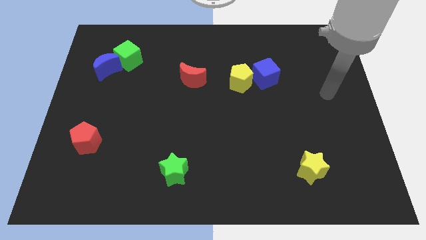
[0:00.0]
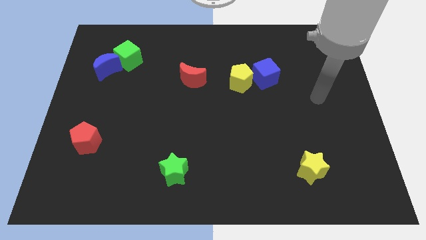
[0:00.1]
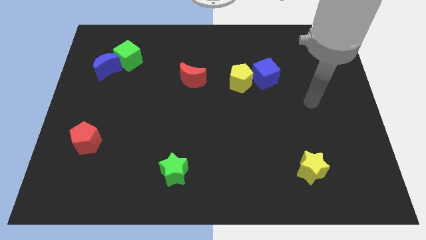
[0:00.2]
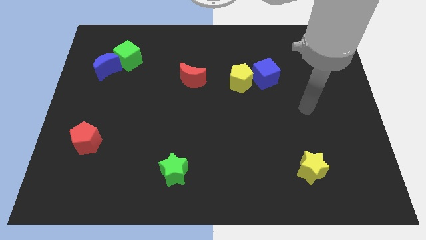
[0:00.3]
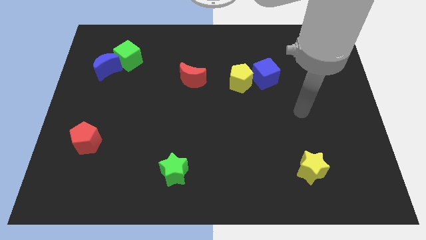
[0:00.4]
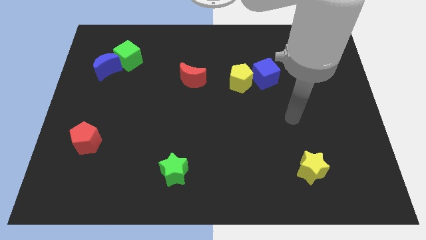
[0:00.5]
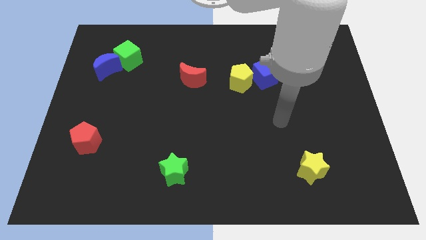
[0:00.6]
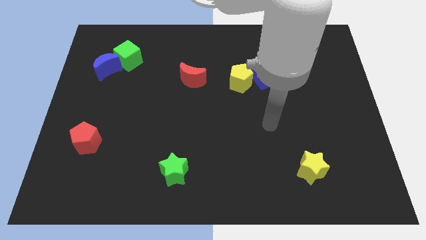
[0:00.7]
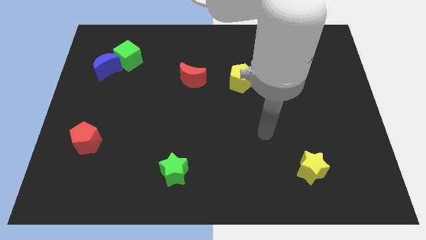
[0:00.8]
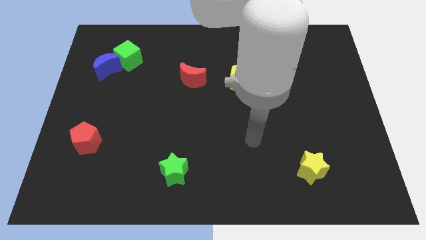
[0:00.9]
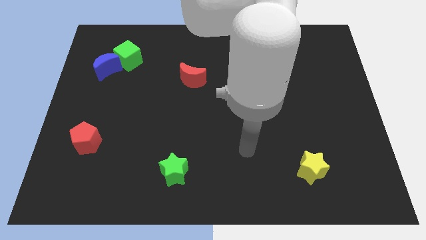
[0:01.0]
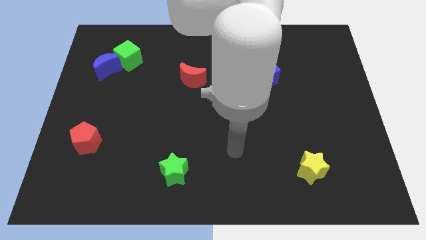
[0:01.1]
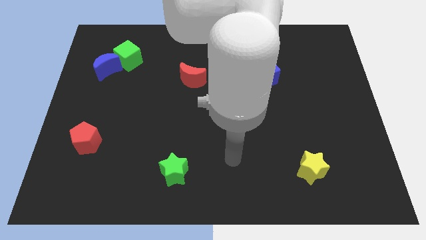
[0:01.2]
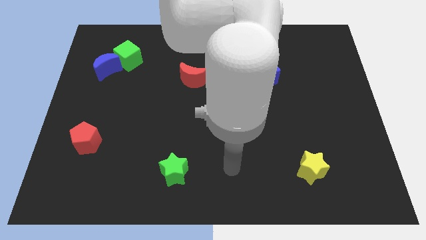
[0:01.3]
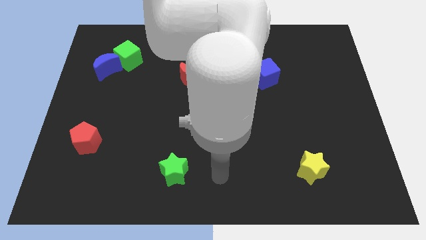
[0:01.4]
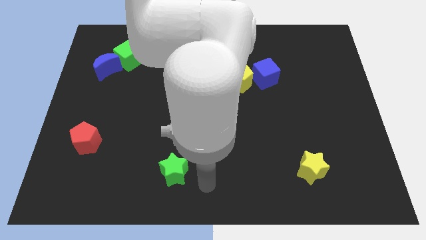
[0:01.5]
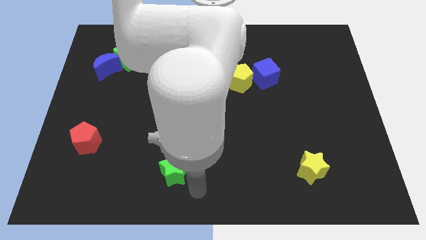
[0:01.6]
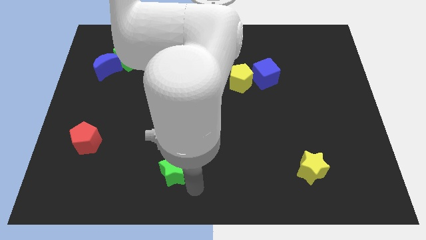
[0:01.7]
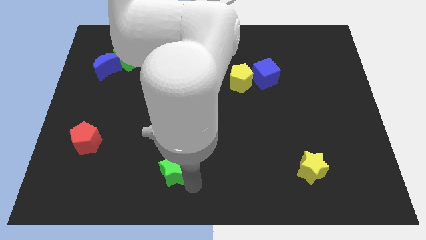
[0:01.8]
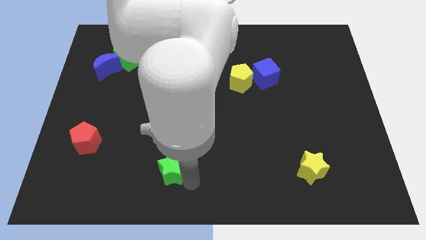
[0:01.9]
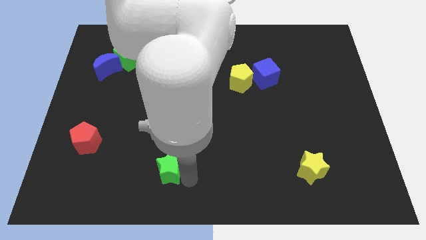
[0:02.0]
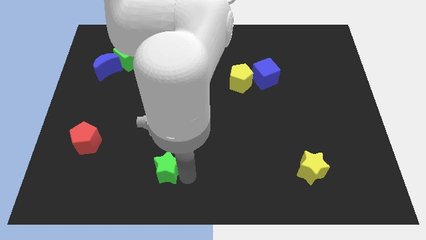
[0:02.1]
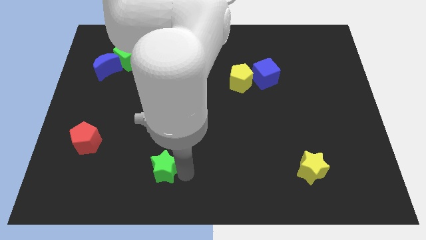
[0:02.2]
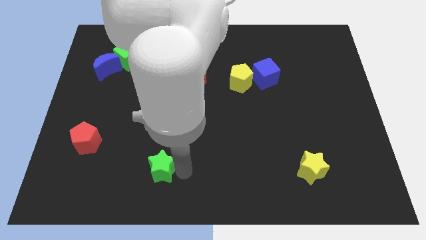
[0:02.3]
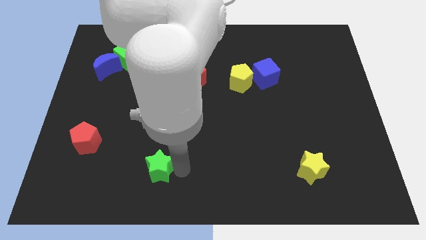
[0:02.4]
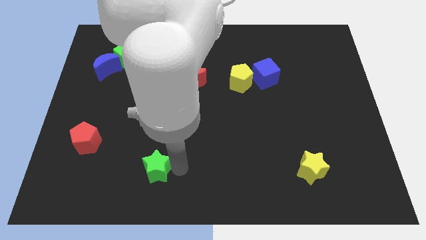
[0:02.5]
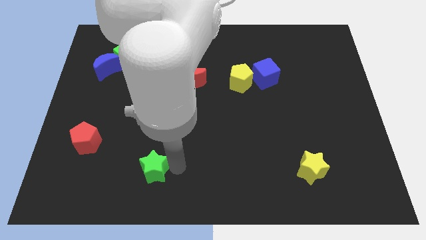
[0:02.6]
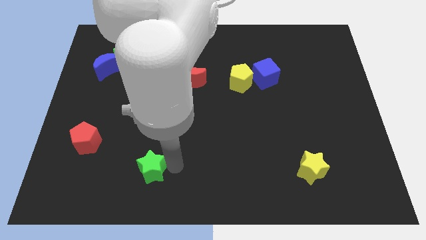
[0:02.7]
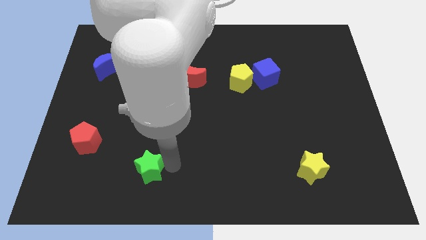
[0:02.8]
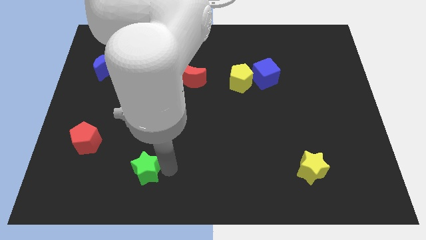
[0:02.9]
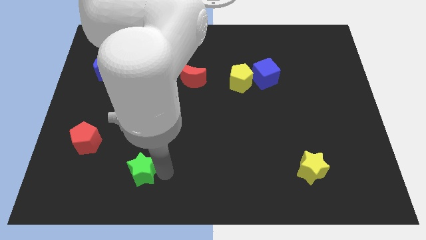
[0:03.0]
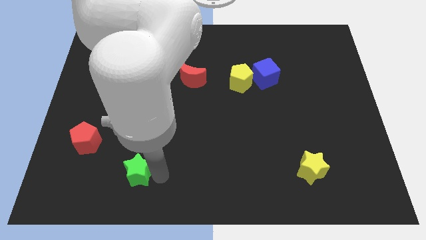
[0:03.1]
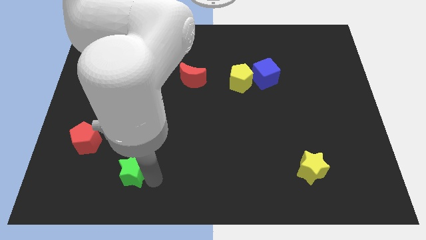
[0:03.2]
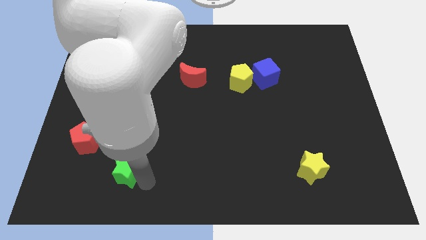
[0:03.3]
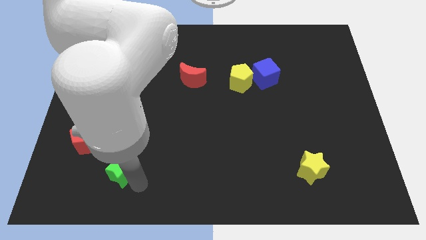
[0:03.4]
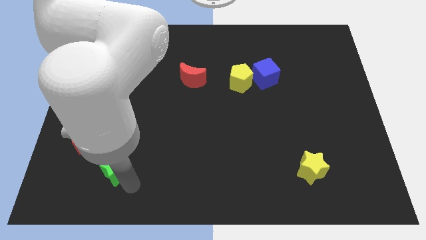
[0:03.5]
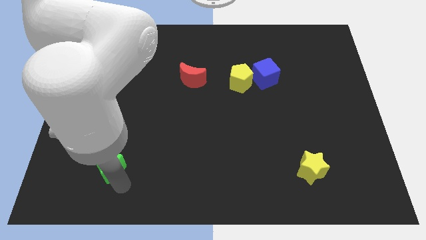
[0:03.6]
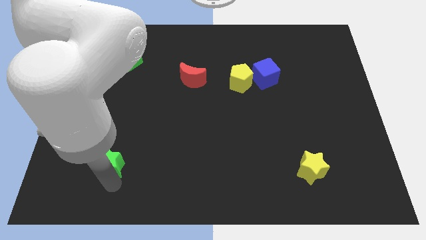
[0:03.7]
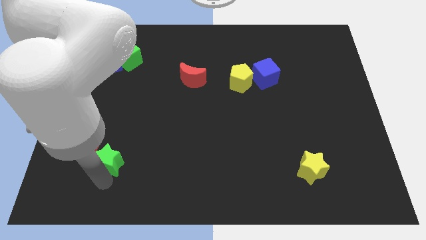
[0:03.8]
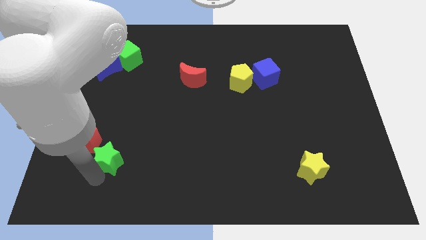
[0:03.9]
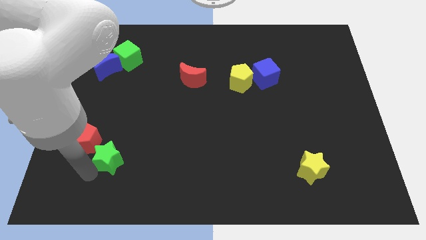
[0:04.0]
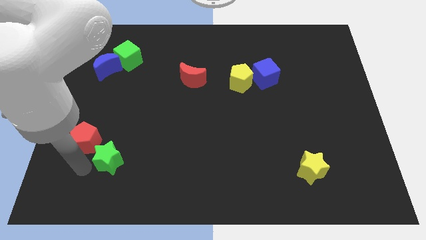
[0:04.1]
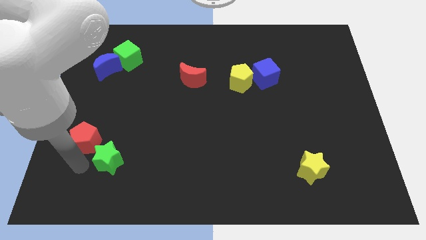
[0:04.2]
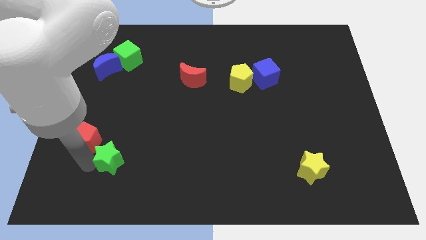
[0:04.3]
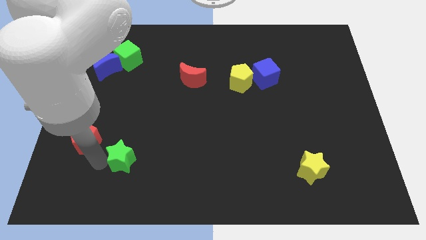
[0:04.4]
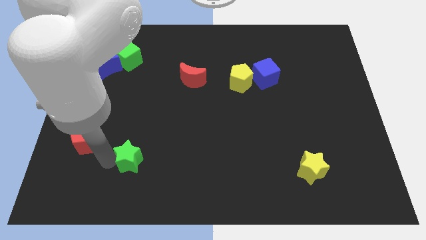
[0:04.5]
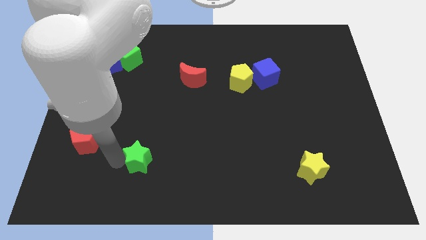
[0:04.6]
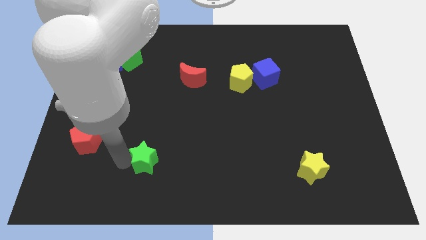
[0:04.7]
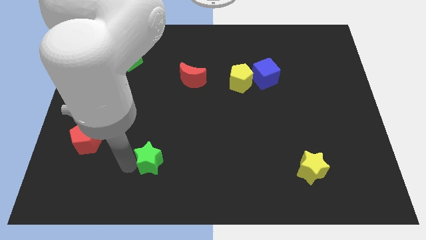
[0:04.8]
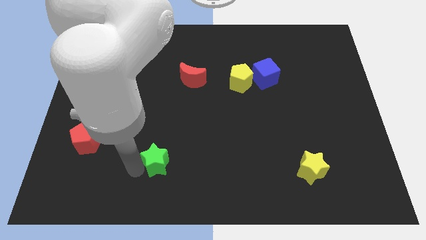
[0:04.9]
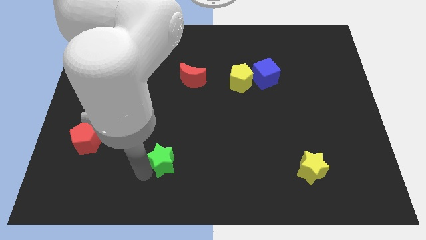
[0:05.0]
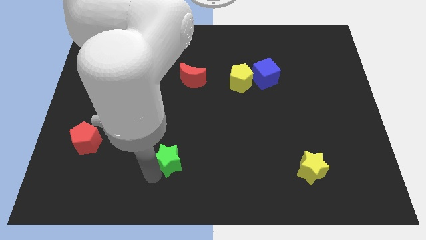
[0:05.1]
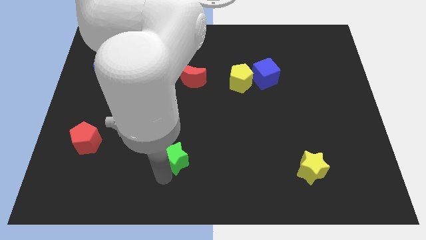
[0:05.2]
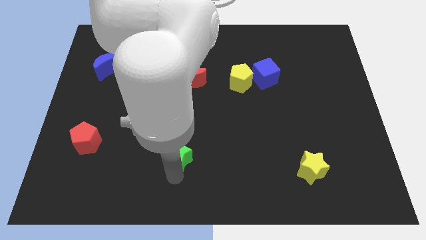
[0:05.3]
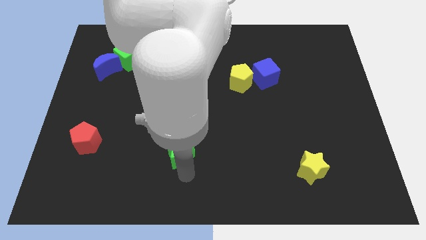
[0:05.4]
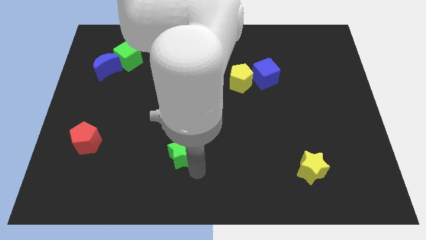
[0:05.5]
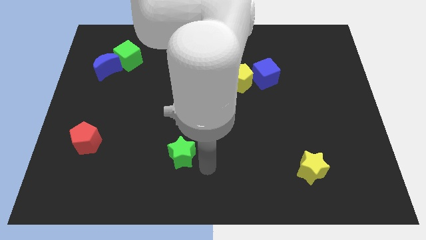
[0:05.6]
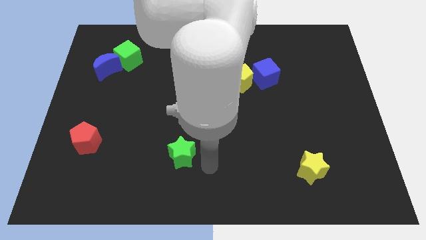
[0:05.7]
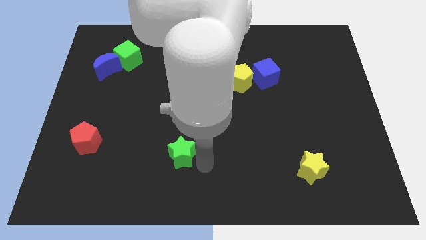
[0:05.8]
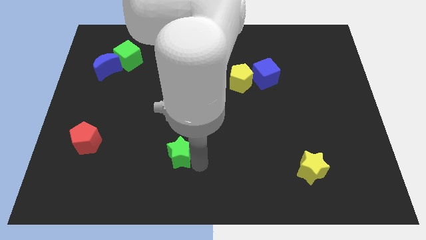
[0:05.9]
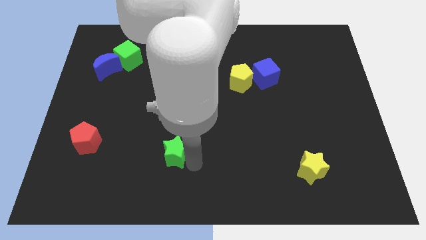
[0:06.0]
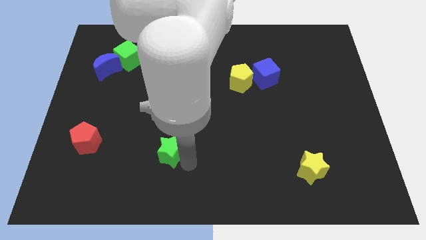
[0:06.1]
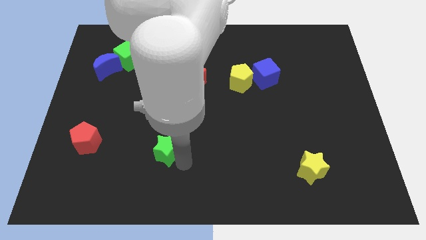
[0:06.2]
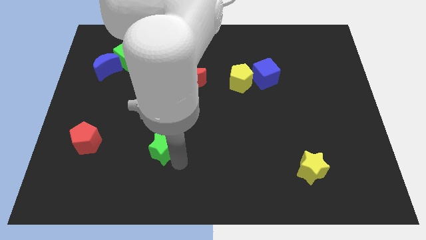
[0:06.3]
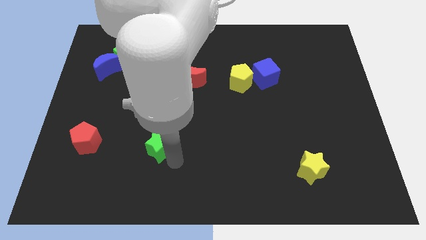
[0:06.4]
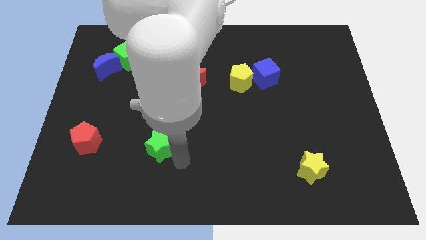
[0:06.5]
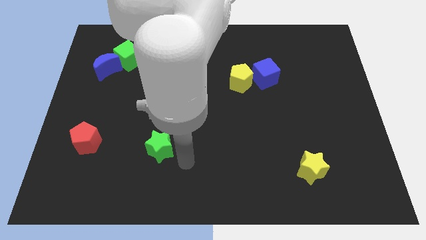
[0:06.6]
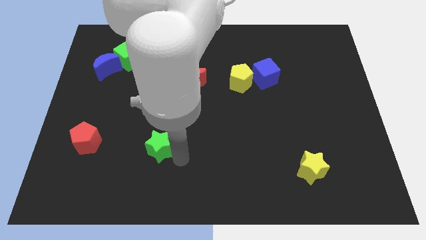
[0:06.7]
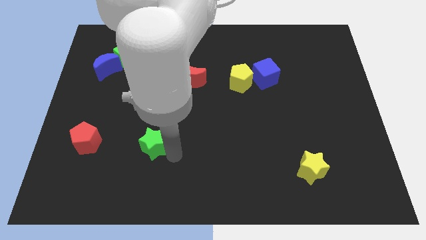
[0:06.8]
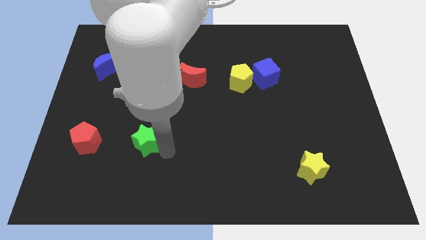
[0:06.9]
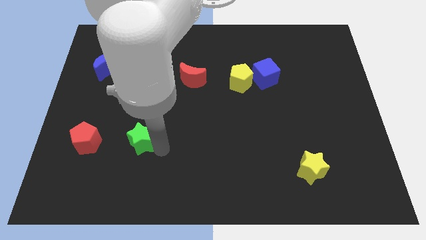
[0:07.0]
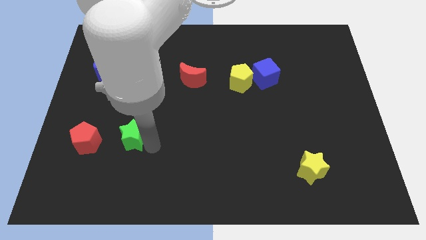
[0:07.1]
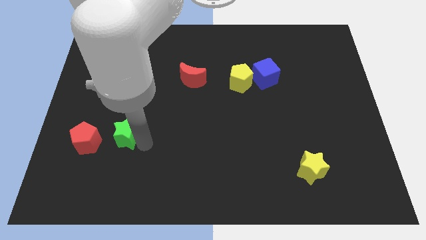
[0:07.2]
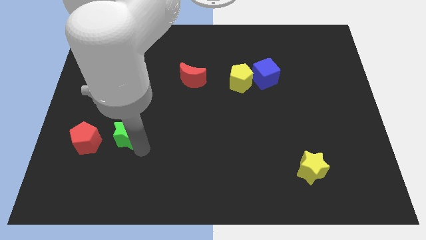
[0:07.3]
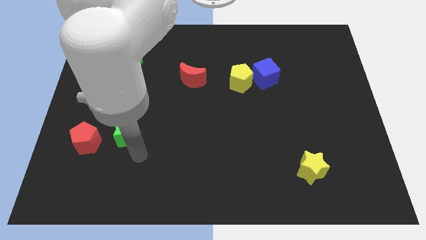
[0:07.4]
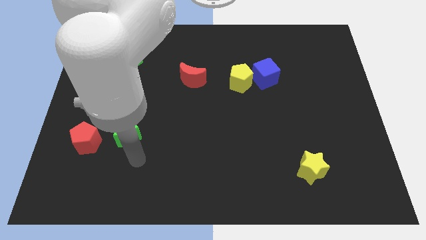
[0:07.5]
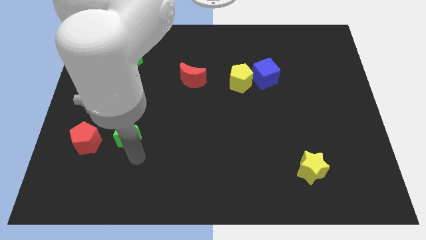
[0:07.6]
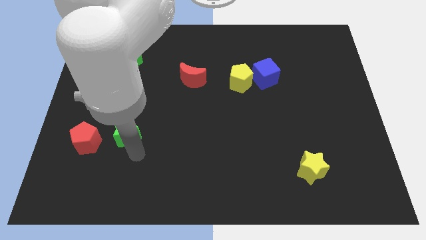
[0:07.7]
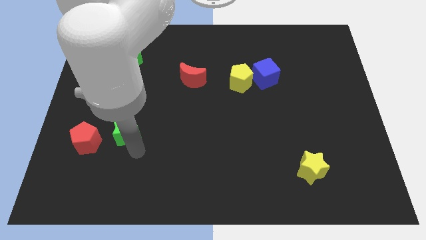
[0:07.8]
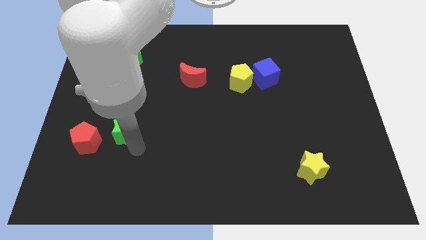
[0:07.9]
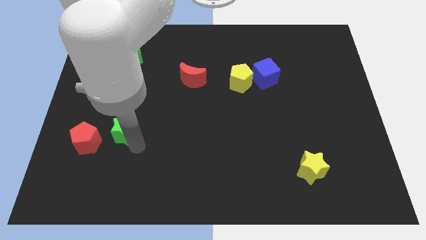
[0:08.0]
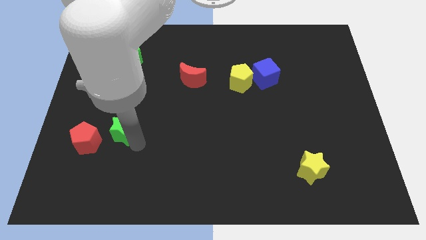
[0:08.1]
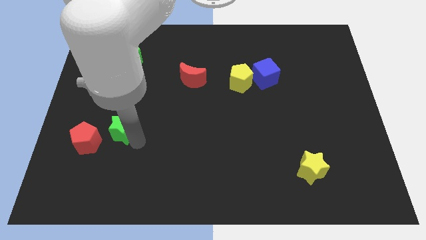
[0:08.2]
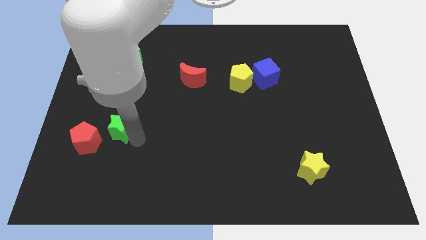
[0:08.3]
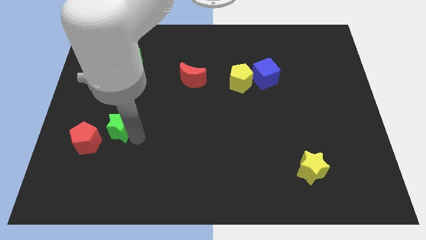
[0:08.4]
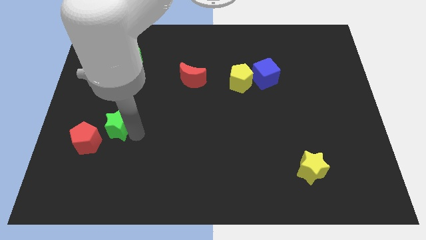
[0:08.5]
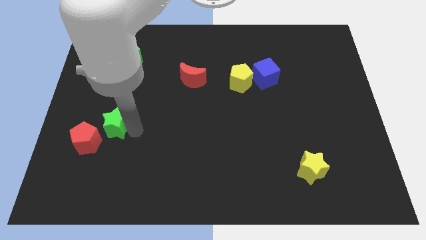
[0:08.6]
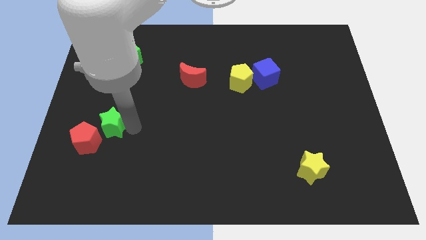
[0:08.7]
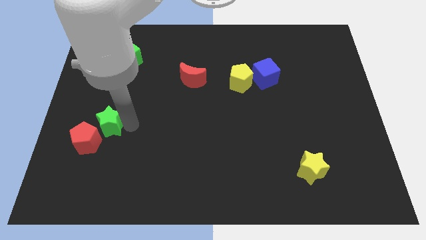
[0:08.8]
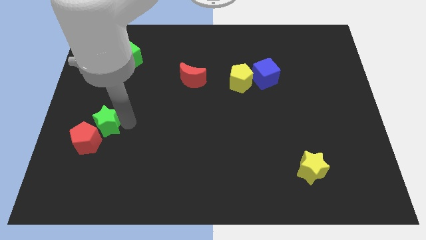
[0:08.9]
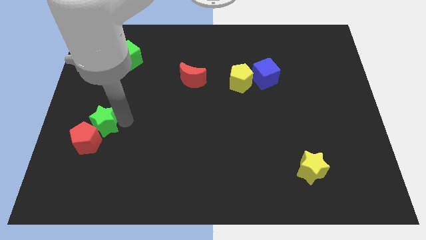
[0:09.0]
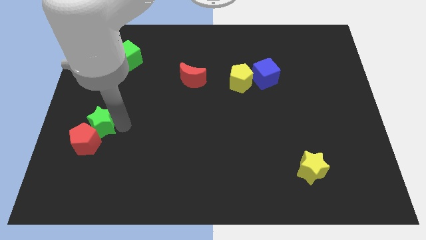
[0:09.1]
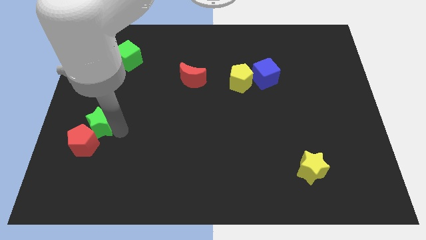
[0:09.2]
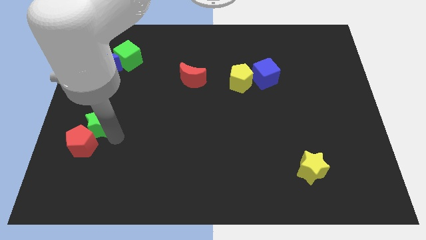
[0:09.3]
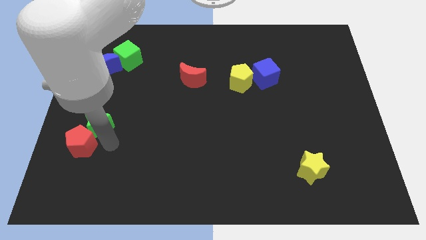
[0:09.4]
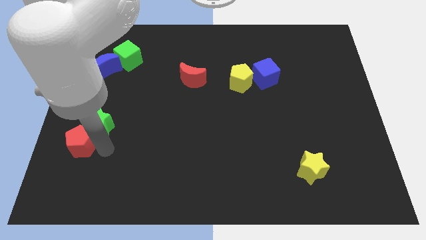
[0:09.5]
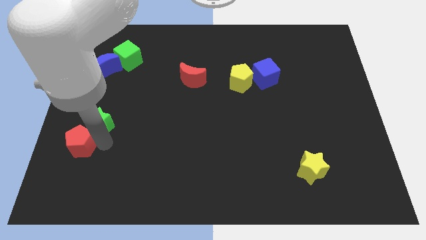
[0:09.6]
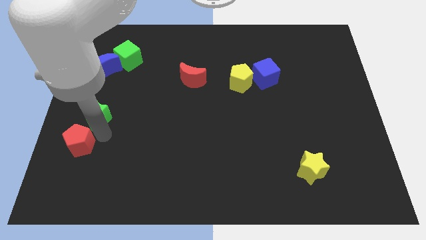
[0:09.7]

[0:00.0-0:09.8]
push the green star to the bottom side of the blue moon
